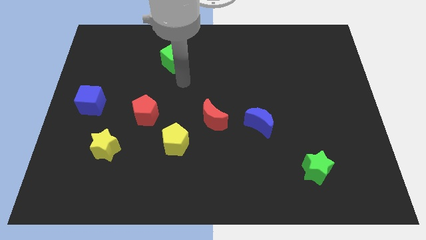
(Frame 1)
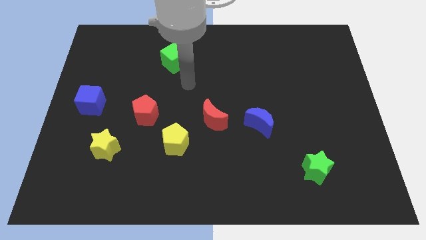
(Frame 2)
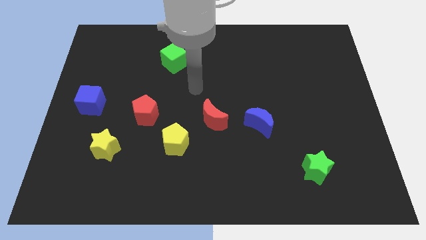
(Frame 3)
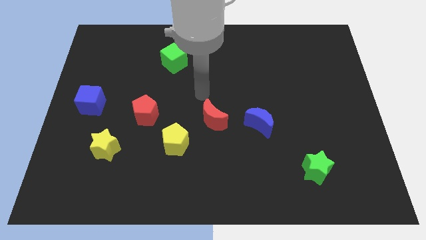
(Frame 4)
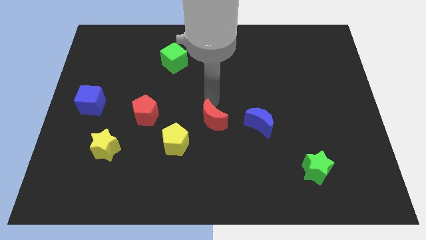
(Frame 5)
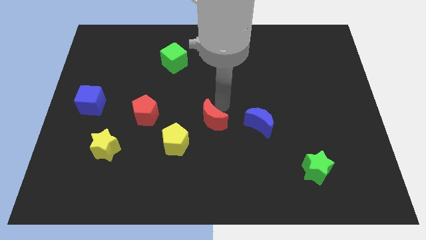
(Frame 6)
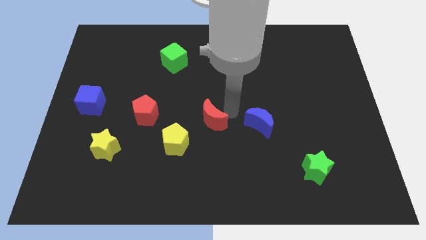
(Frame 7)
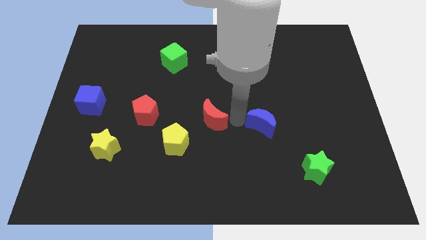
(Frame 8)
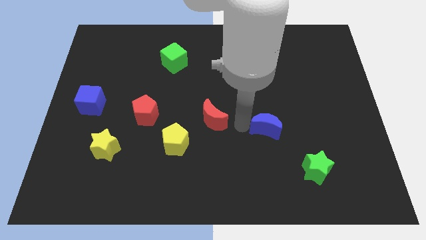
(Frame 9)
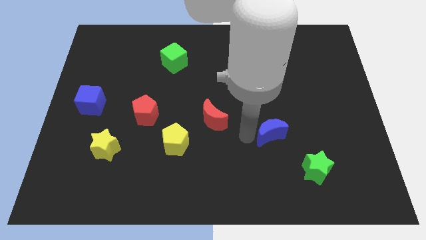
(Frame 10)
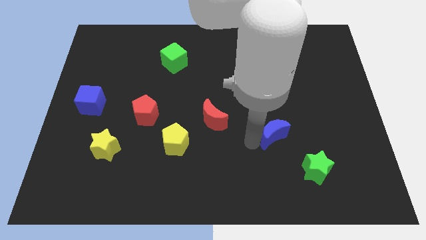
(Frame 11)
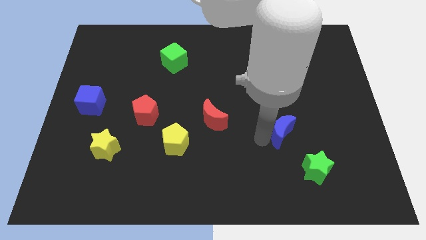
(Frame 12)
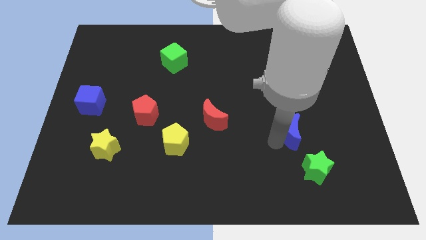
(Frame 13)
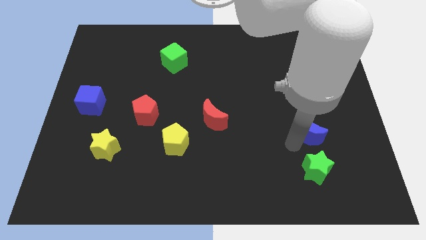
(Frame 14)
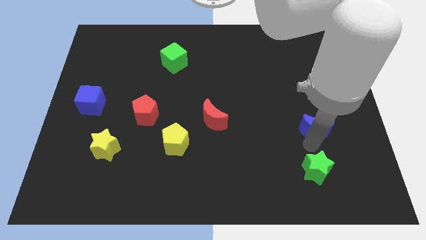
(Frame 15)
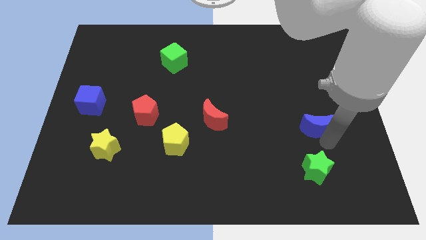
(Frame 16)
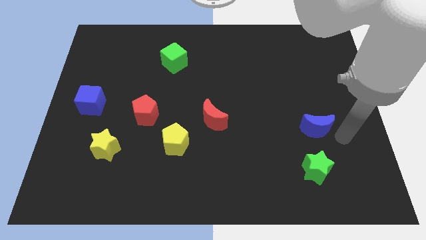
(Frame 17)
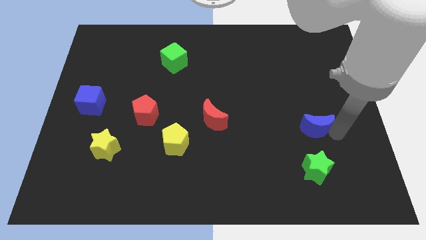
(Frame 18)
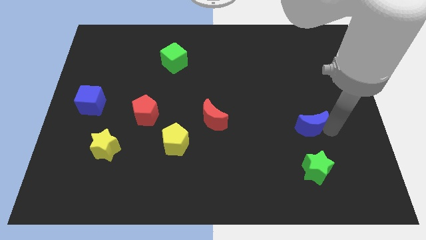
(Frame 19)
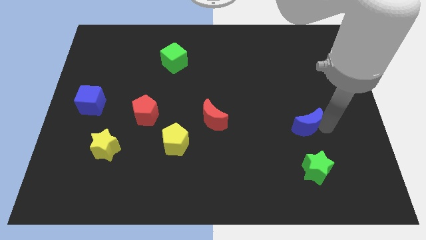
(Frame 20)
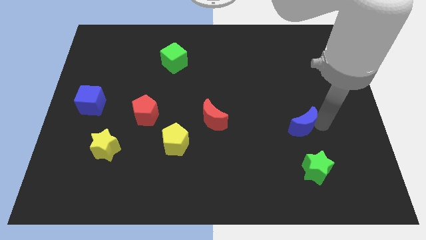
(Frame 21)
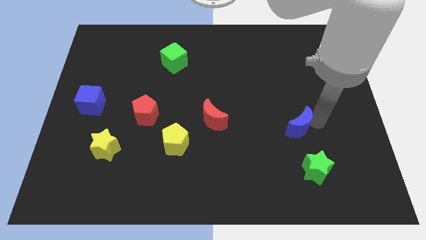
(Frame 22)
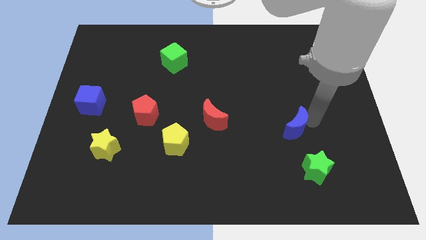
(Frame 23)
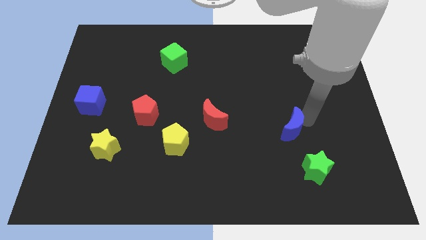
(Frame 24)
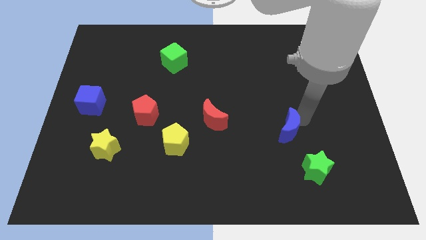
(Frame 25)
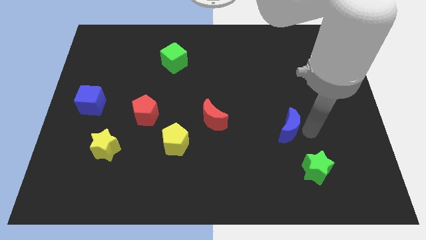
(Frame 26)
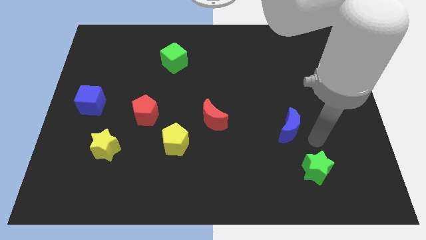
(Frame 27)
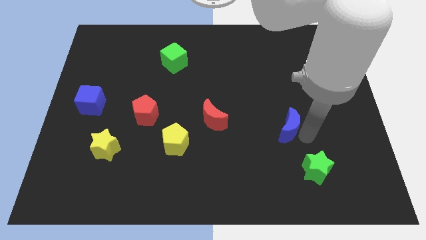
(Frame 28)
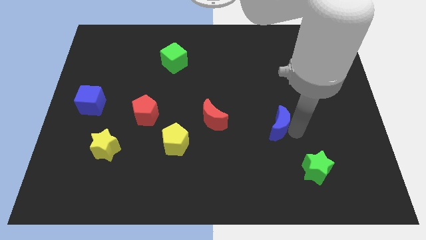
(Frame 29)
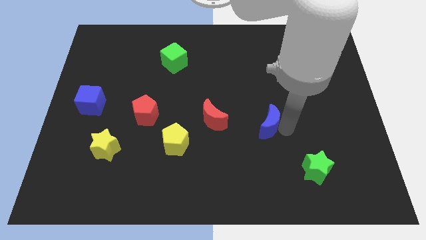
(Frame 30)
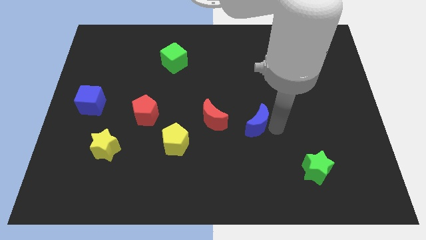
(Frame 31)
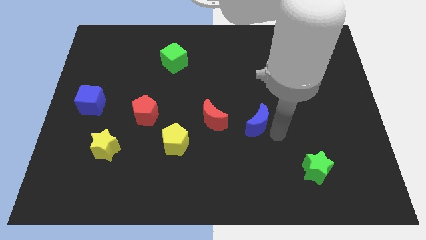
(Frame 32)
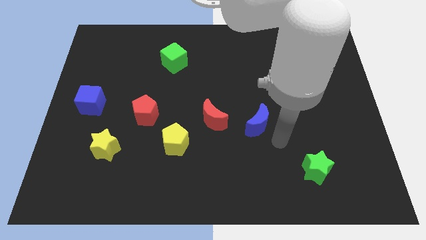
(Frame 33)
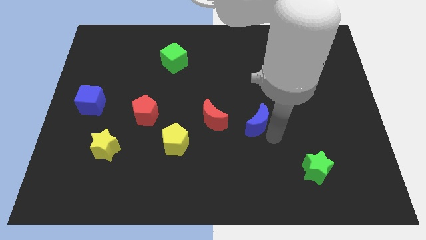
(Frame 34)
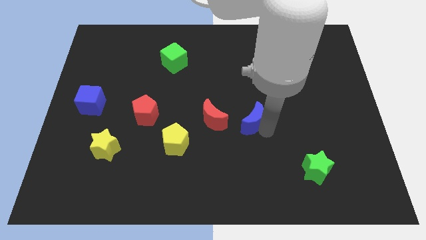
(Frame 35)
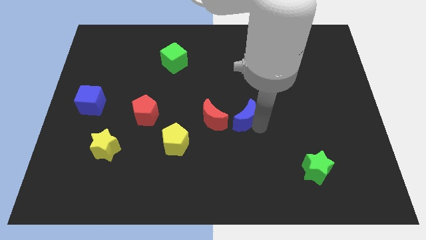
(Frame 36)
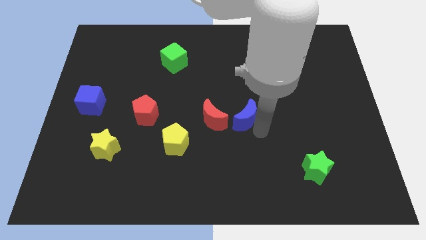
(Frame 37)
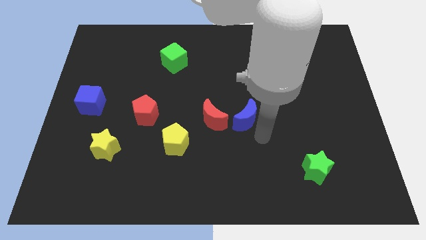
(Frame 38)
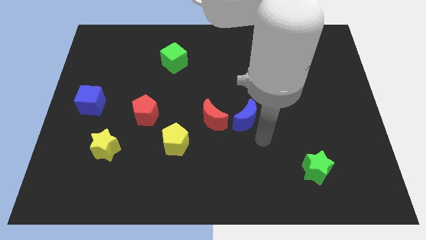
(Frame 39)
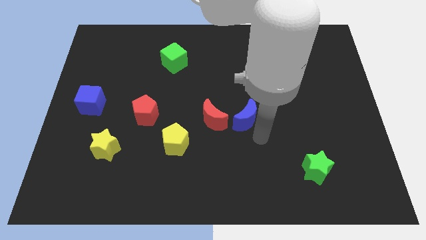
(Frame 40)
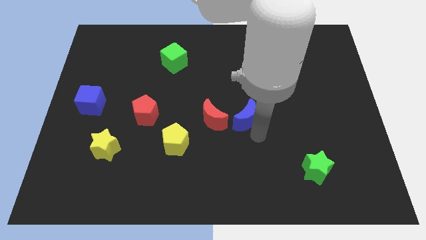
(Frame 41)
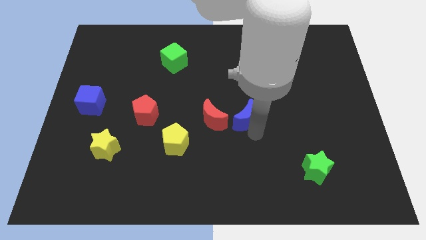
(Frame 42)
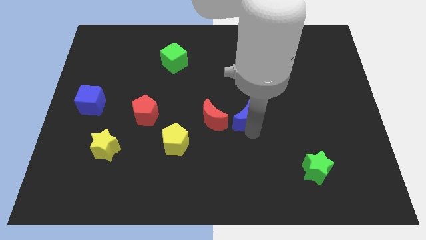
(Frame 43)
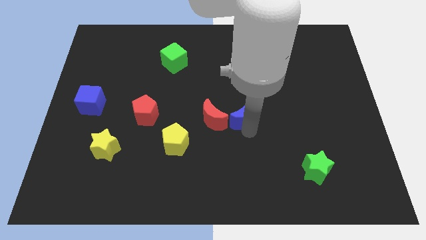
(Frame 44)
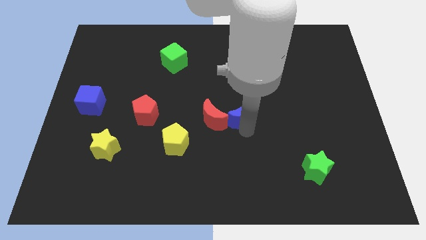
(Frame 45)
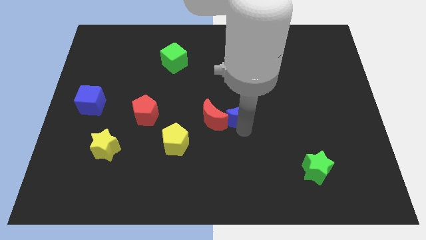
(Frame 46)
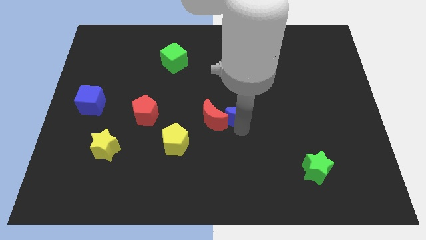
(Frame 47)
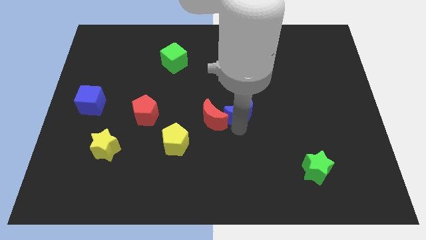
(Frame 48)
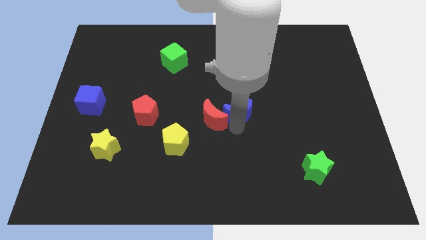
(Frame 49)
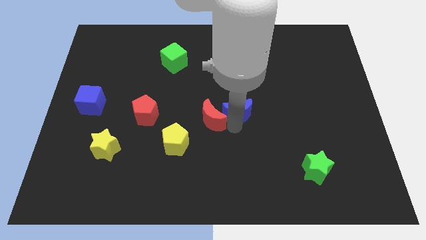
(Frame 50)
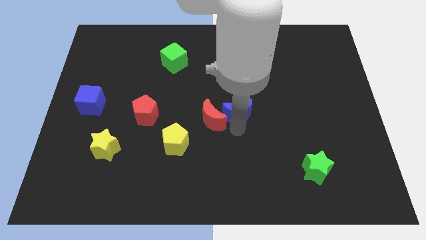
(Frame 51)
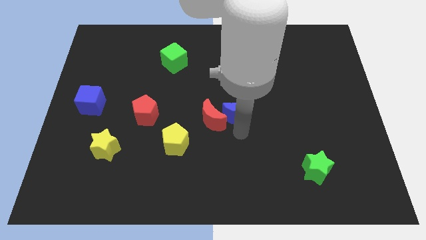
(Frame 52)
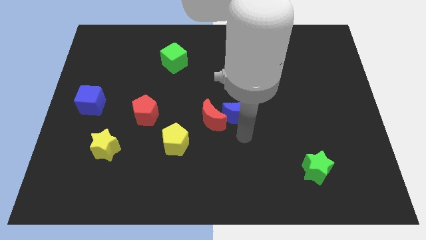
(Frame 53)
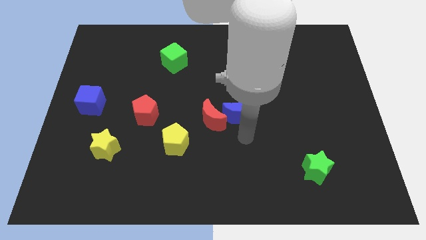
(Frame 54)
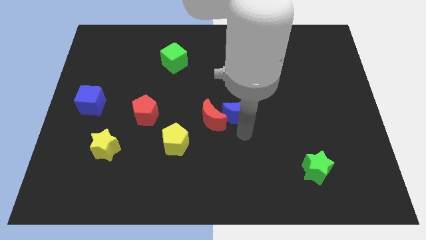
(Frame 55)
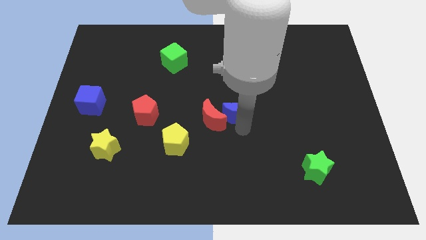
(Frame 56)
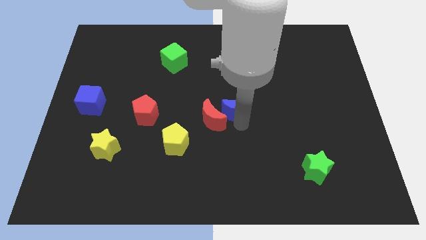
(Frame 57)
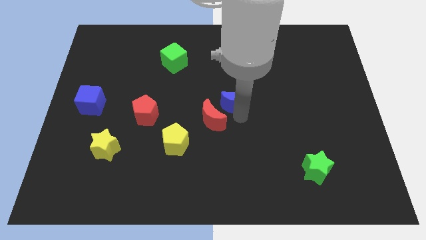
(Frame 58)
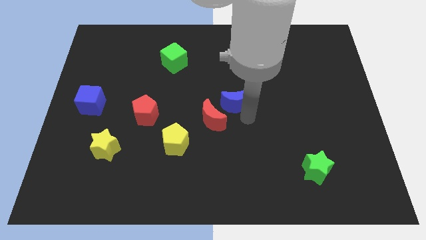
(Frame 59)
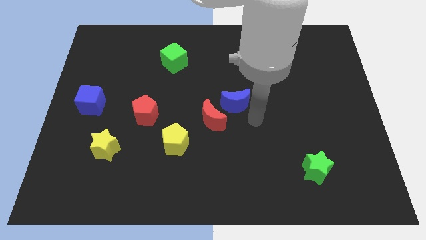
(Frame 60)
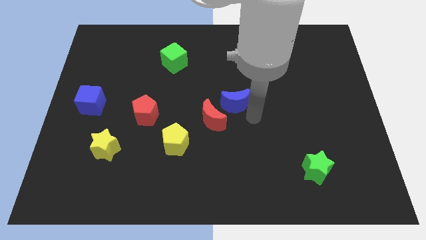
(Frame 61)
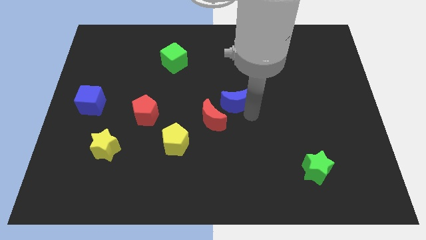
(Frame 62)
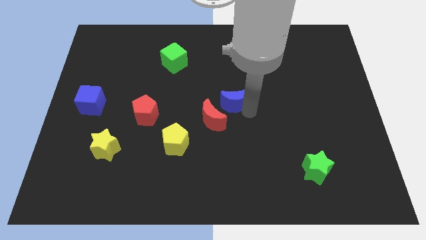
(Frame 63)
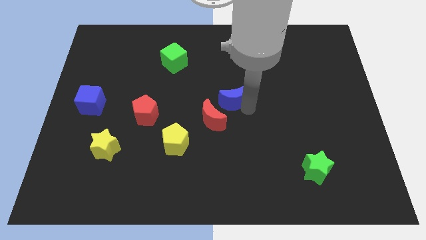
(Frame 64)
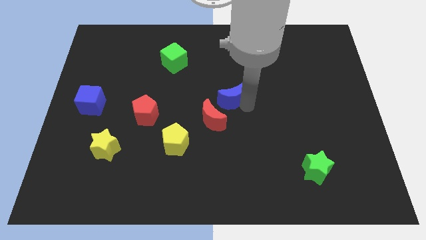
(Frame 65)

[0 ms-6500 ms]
put the blue moon to the top side of the red moon

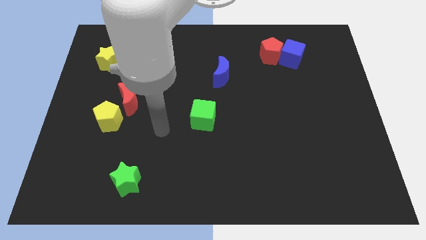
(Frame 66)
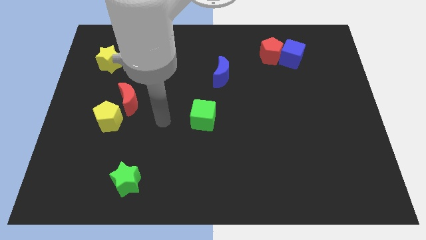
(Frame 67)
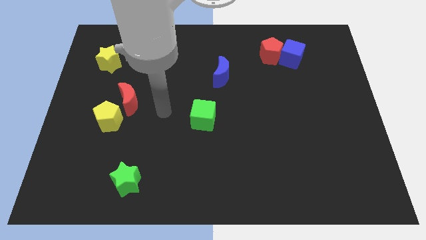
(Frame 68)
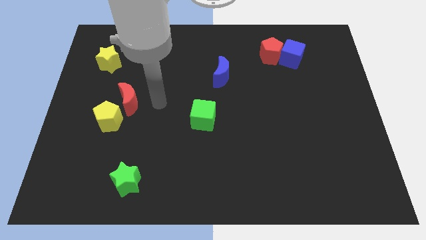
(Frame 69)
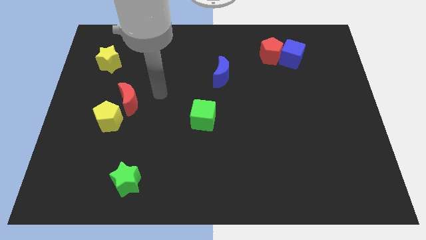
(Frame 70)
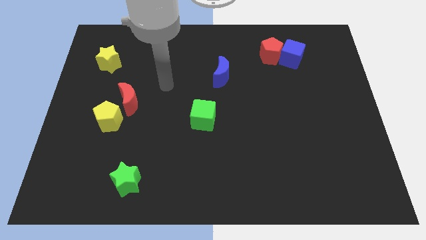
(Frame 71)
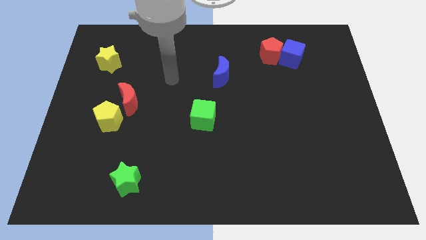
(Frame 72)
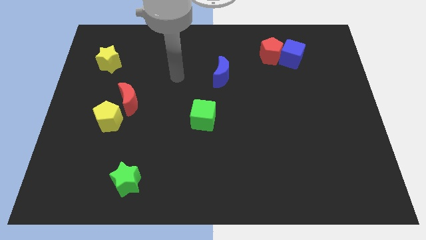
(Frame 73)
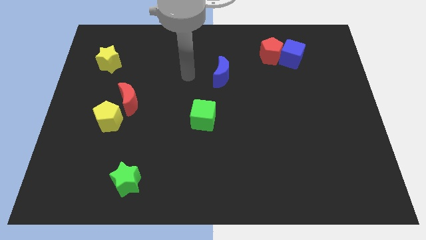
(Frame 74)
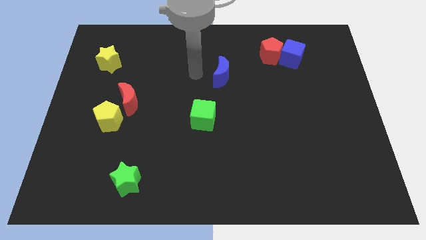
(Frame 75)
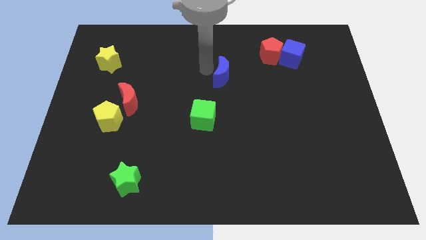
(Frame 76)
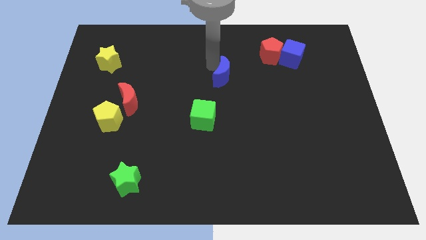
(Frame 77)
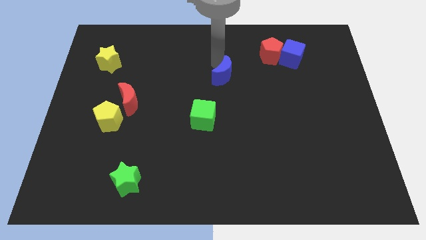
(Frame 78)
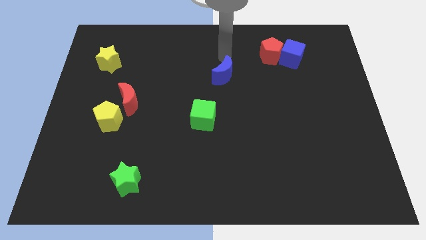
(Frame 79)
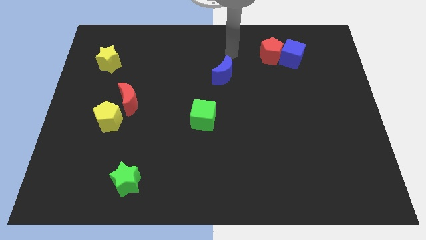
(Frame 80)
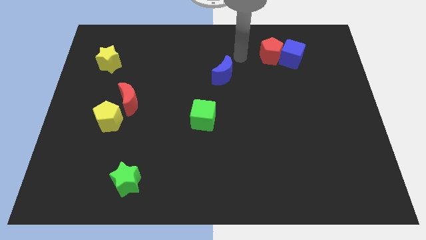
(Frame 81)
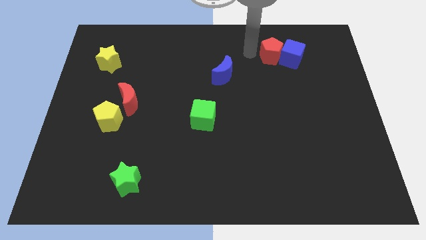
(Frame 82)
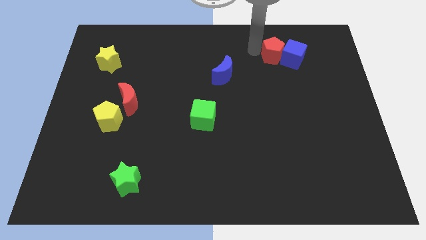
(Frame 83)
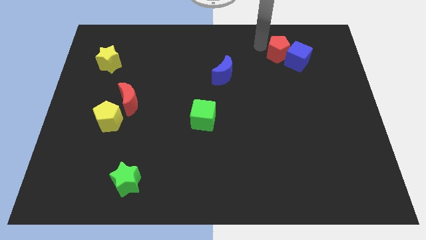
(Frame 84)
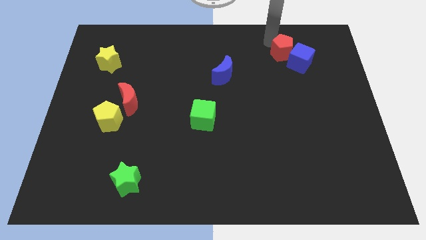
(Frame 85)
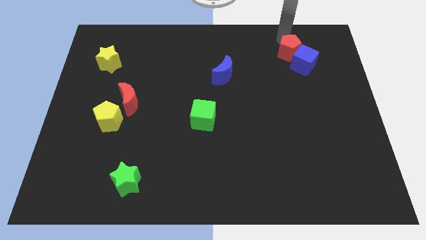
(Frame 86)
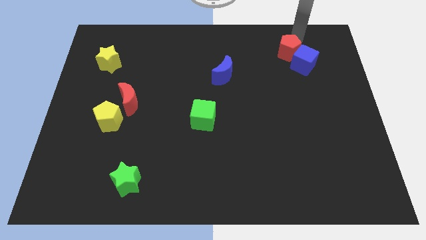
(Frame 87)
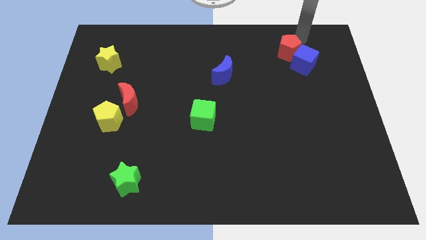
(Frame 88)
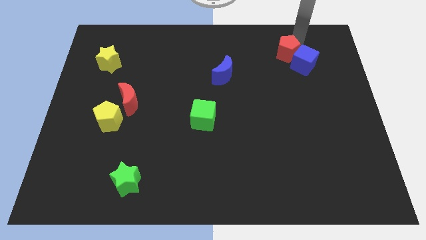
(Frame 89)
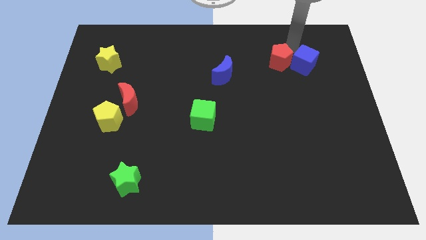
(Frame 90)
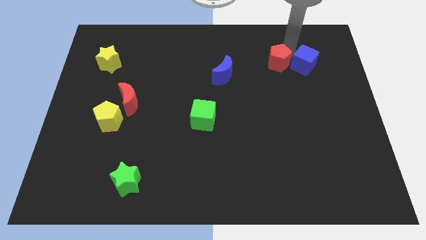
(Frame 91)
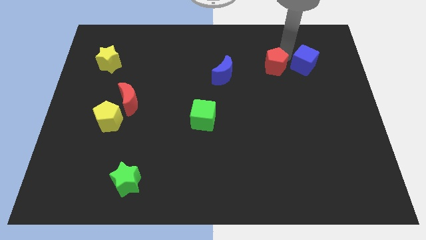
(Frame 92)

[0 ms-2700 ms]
push the red pentagon just right of the blue moon
